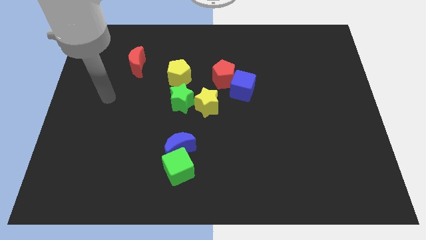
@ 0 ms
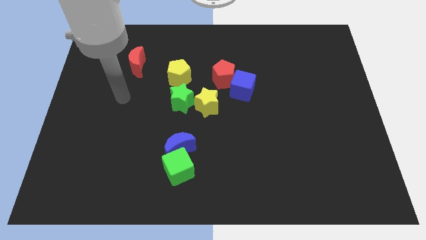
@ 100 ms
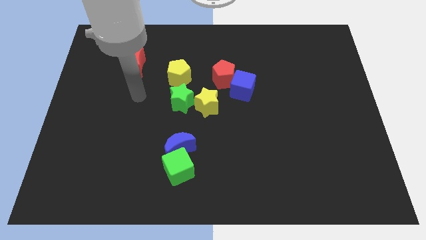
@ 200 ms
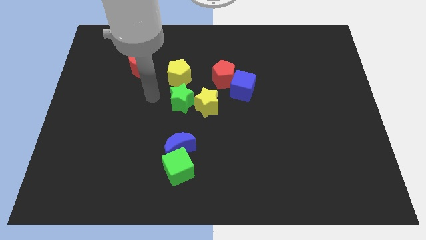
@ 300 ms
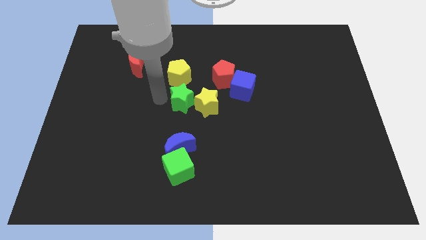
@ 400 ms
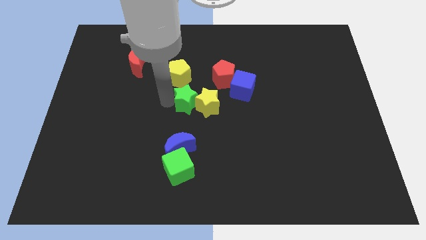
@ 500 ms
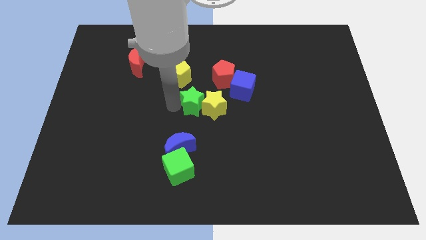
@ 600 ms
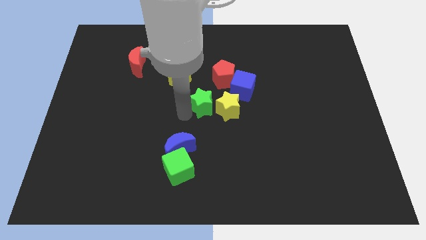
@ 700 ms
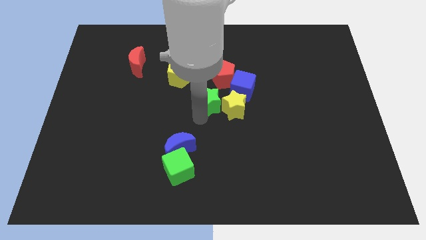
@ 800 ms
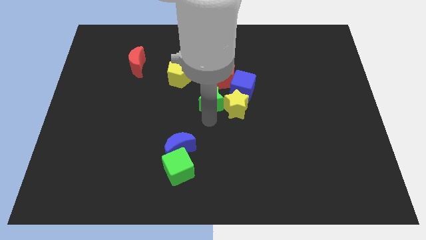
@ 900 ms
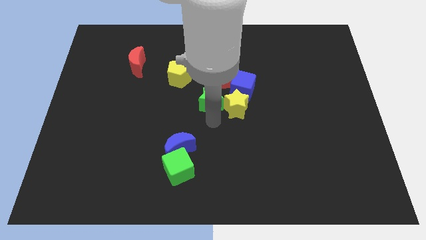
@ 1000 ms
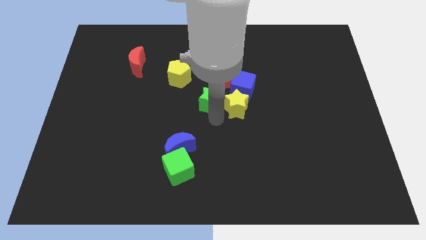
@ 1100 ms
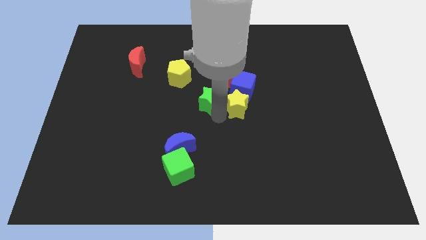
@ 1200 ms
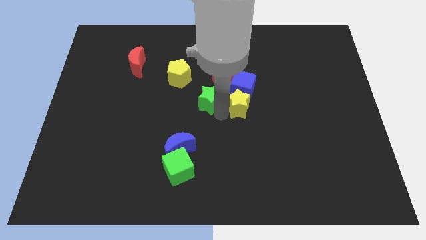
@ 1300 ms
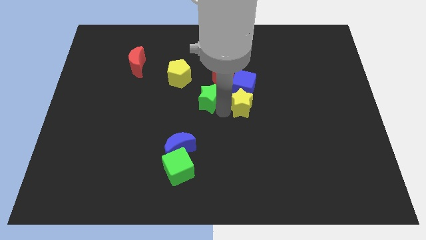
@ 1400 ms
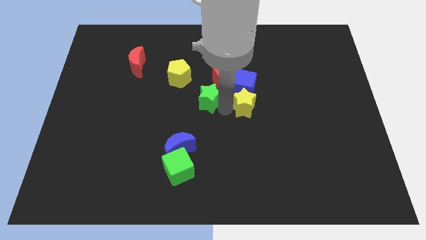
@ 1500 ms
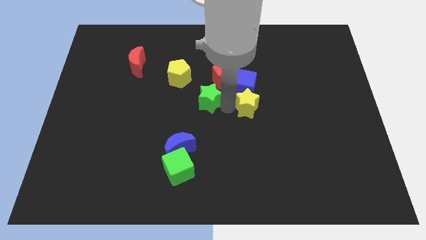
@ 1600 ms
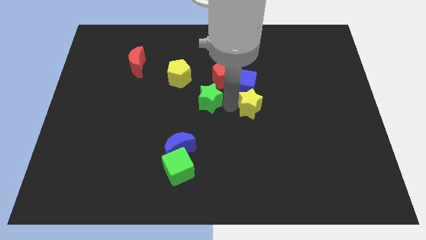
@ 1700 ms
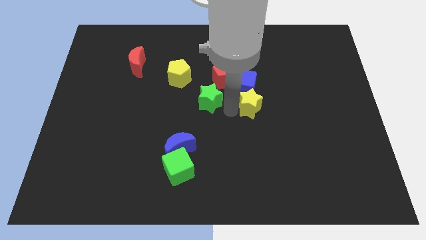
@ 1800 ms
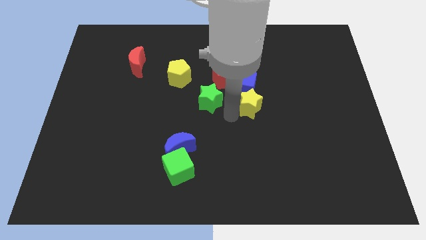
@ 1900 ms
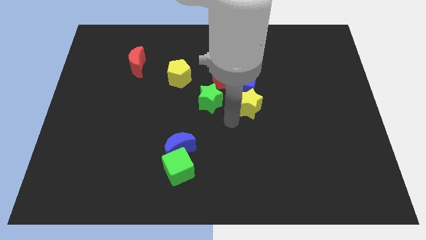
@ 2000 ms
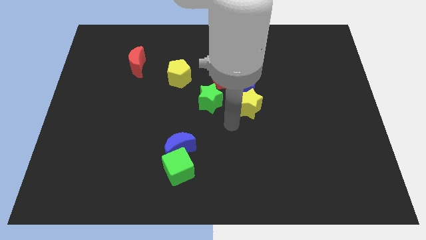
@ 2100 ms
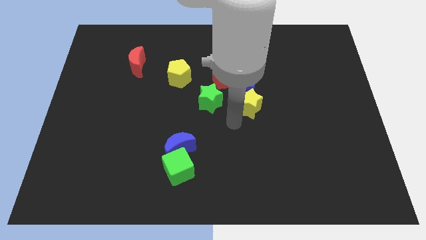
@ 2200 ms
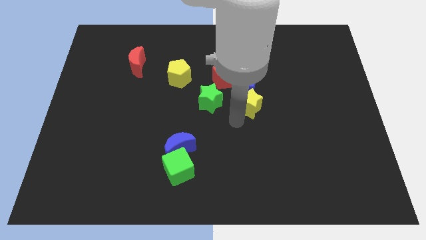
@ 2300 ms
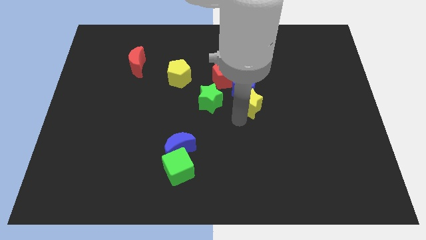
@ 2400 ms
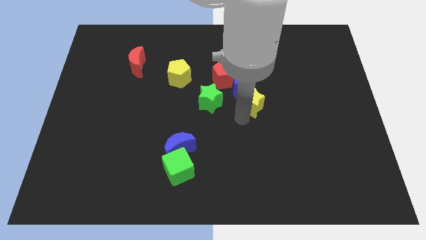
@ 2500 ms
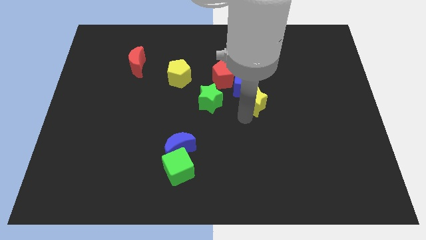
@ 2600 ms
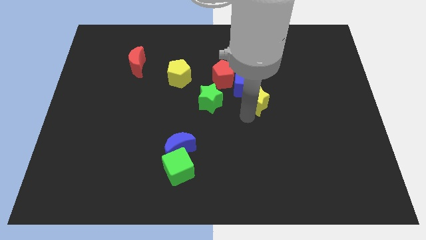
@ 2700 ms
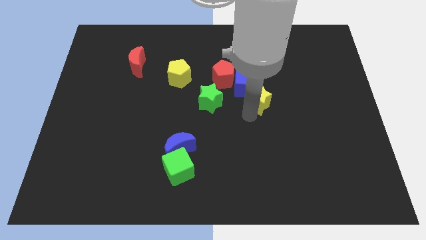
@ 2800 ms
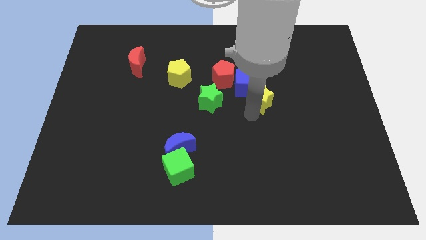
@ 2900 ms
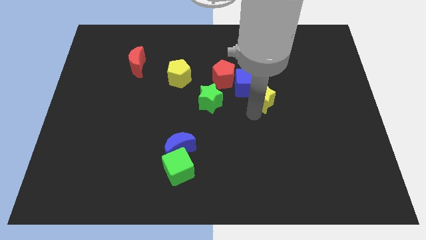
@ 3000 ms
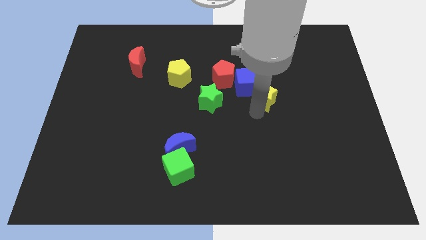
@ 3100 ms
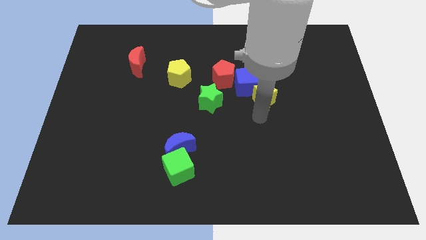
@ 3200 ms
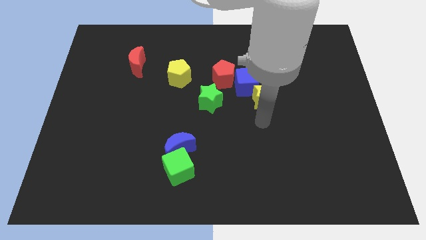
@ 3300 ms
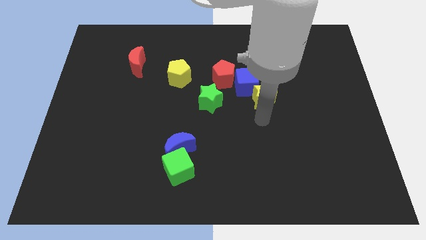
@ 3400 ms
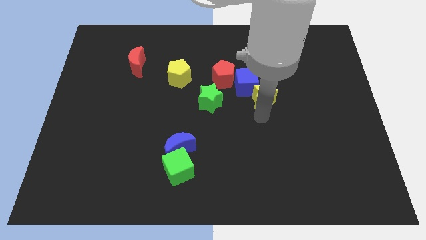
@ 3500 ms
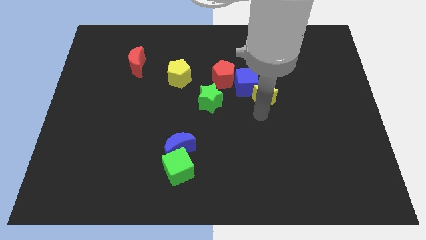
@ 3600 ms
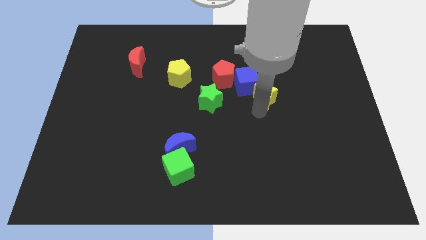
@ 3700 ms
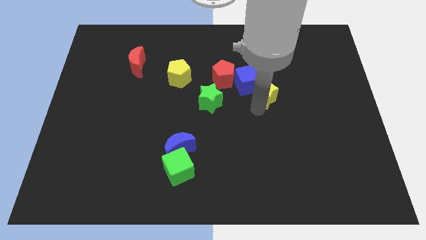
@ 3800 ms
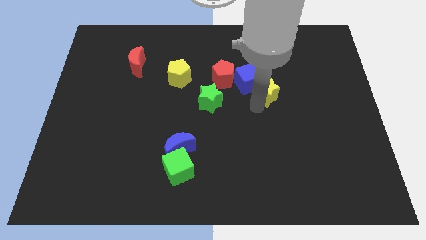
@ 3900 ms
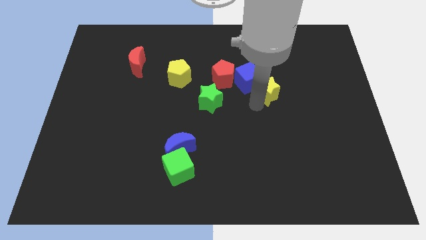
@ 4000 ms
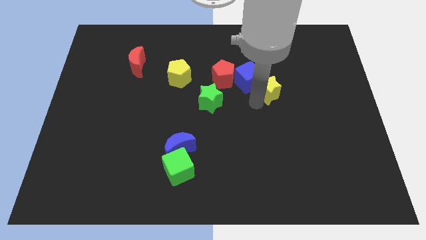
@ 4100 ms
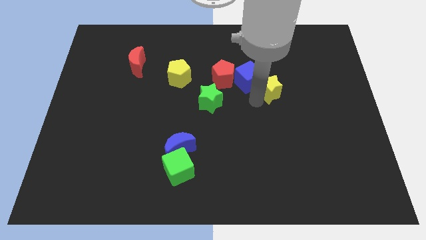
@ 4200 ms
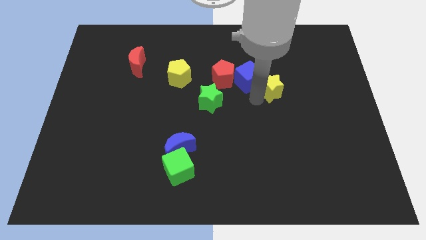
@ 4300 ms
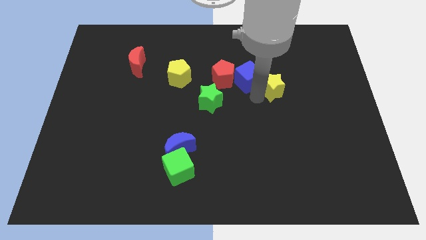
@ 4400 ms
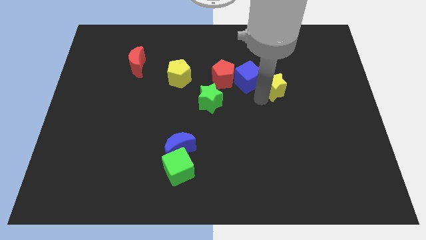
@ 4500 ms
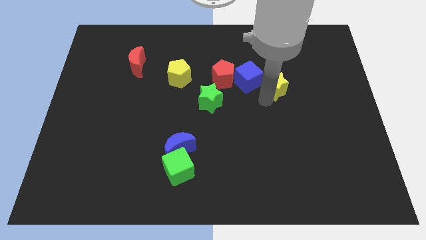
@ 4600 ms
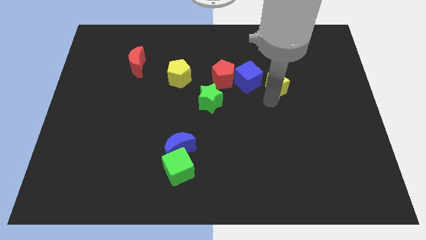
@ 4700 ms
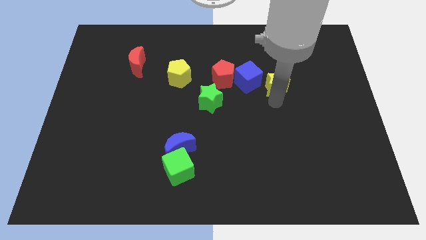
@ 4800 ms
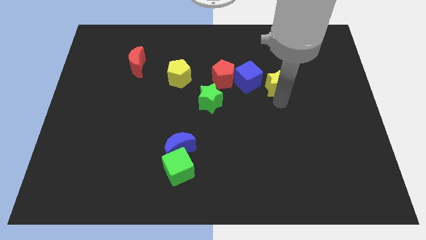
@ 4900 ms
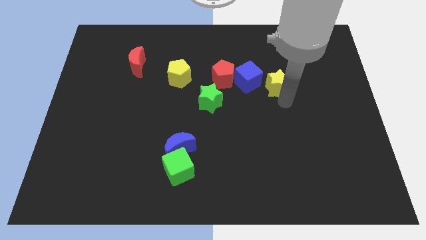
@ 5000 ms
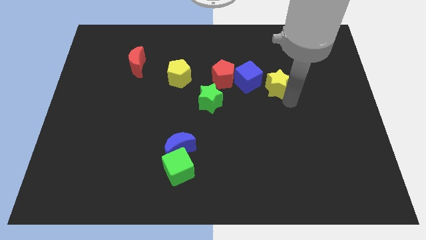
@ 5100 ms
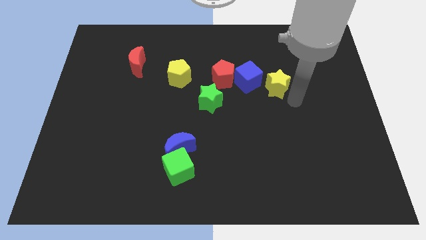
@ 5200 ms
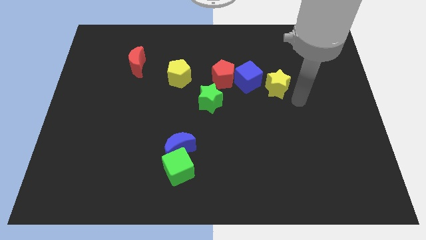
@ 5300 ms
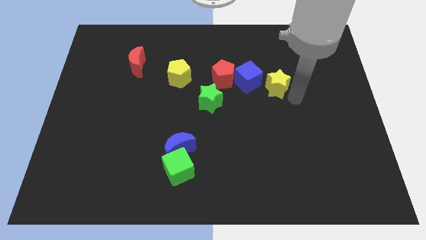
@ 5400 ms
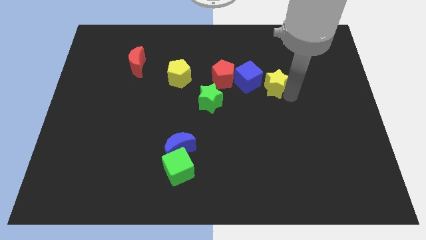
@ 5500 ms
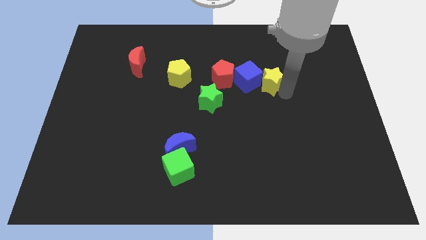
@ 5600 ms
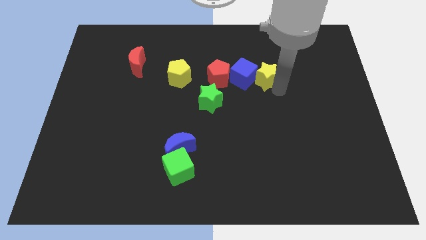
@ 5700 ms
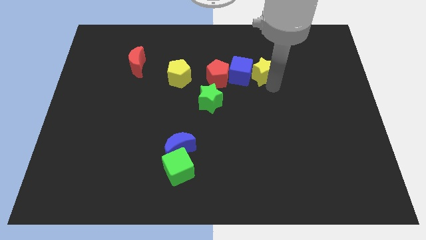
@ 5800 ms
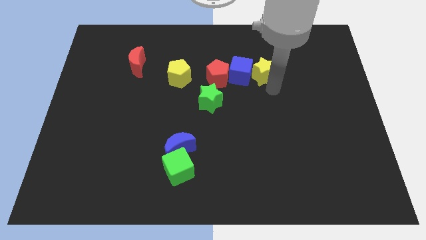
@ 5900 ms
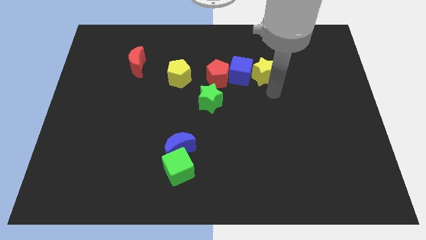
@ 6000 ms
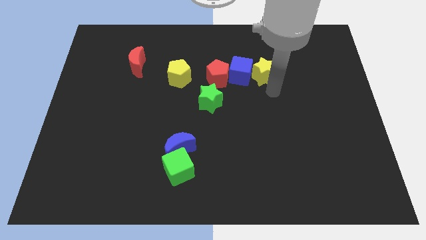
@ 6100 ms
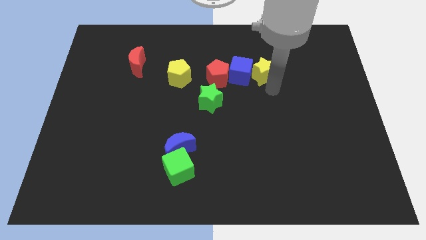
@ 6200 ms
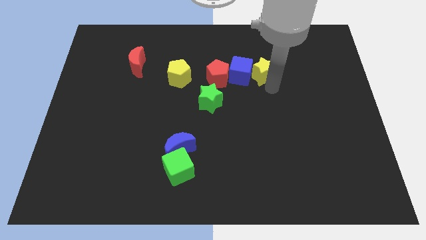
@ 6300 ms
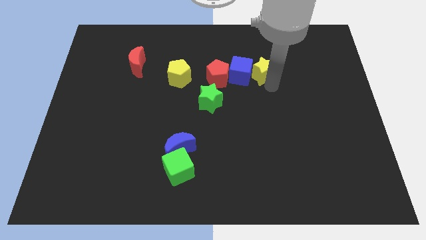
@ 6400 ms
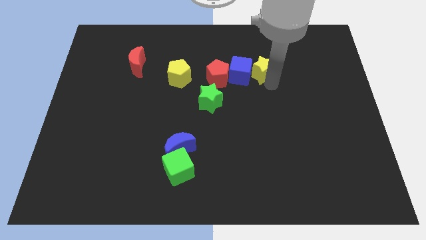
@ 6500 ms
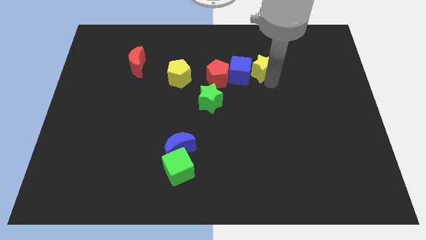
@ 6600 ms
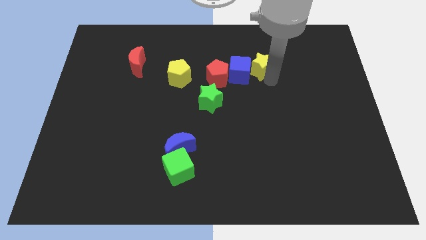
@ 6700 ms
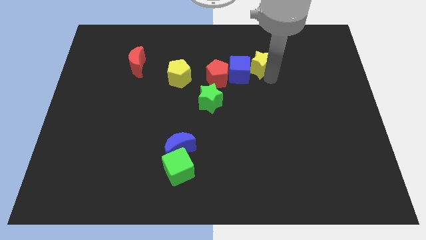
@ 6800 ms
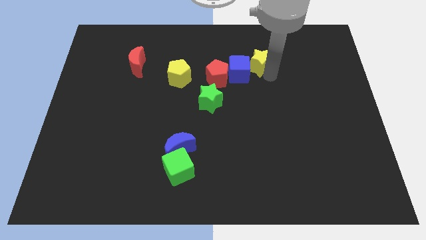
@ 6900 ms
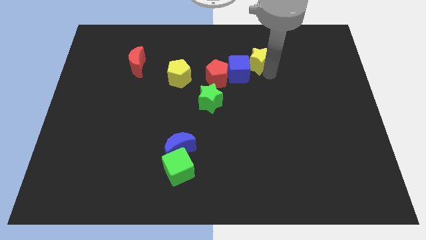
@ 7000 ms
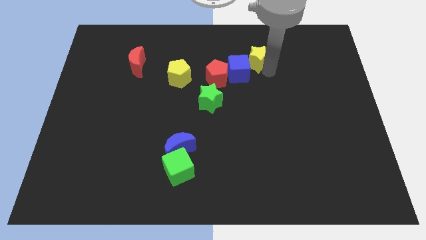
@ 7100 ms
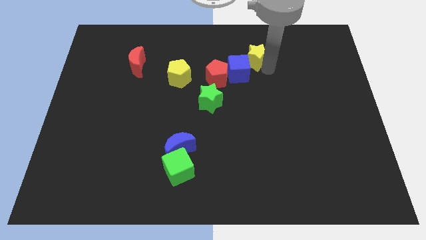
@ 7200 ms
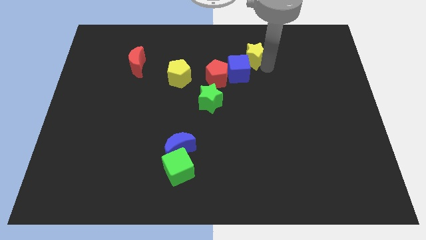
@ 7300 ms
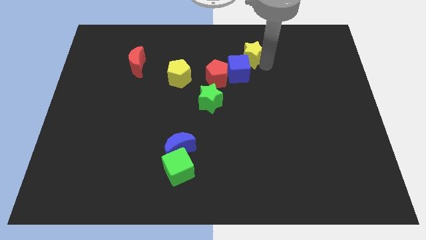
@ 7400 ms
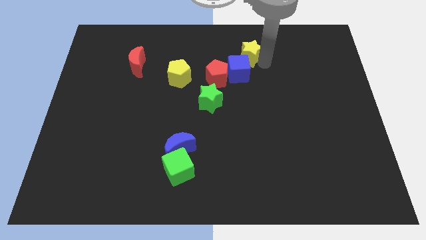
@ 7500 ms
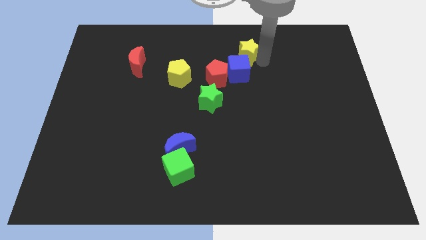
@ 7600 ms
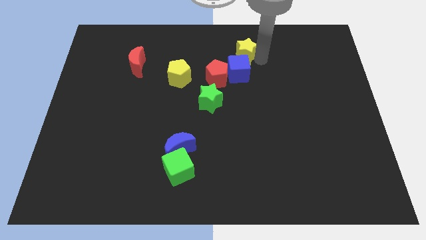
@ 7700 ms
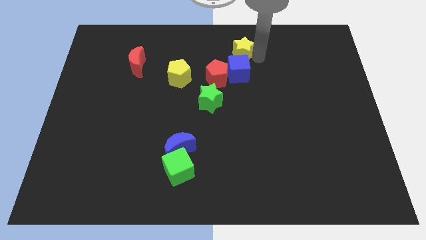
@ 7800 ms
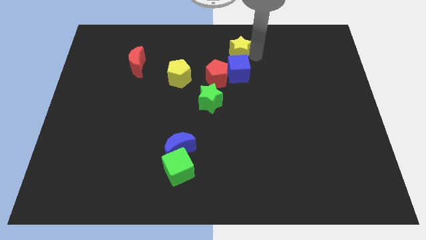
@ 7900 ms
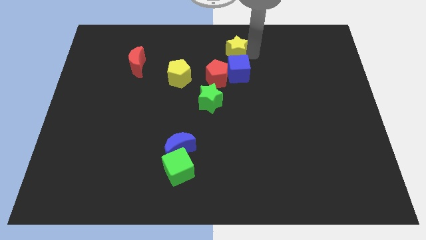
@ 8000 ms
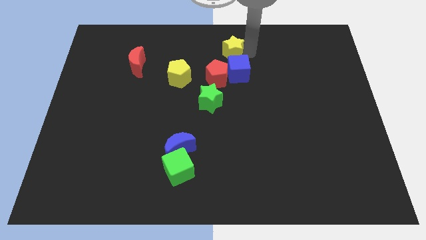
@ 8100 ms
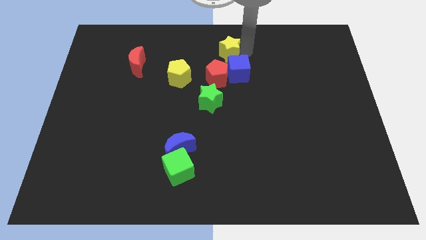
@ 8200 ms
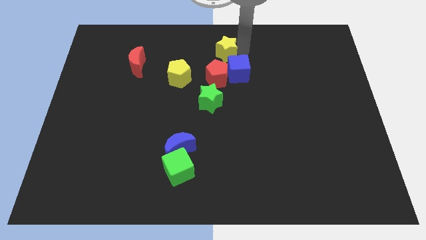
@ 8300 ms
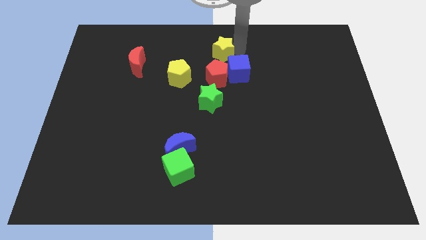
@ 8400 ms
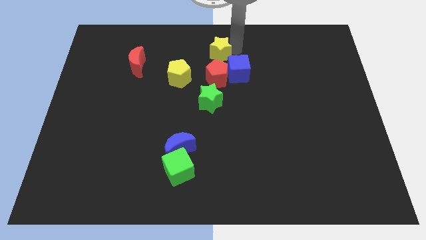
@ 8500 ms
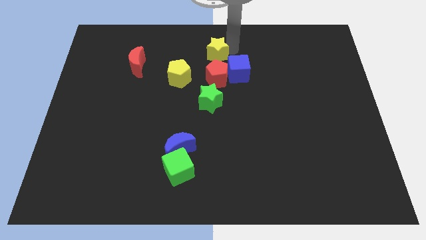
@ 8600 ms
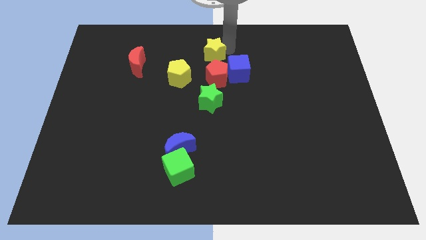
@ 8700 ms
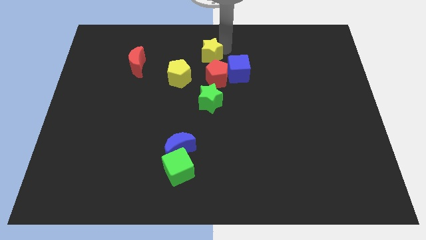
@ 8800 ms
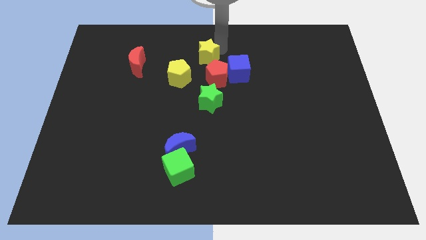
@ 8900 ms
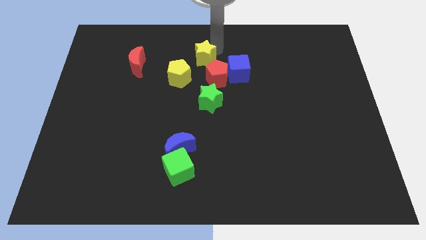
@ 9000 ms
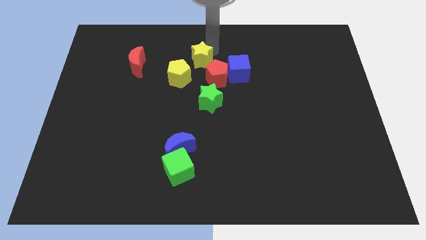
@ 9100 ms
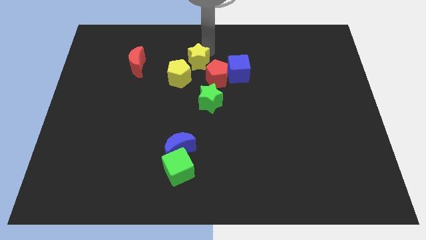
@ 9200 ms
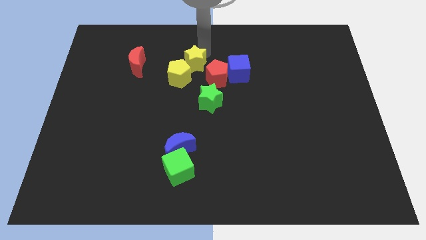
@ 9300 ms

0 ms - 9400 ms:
move the yellow star right of the yellow pentagon
